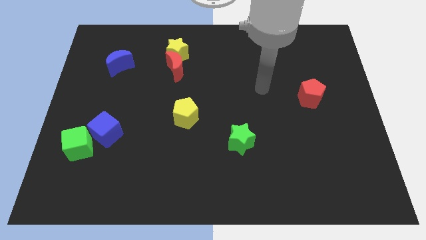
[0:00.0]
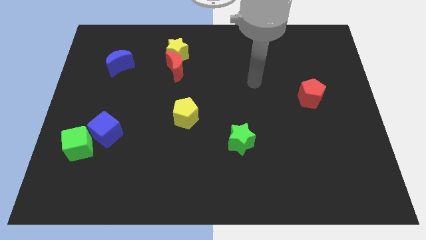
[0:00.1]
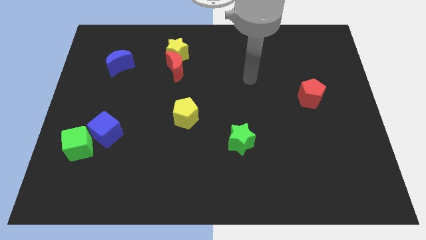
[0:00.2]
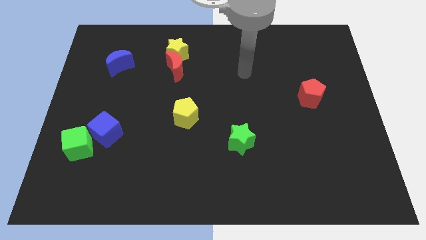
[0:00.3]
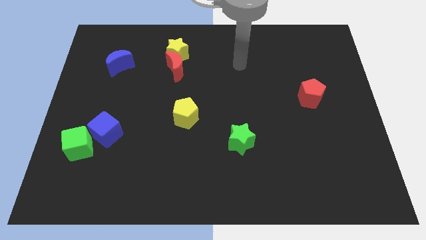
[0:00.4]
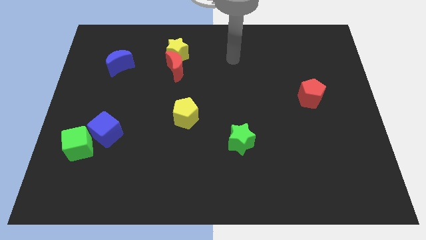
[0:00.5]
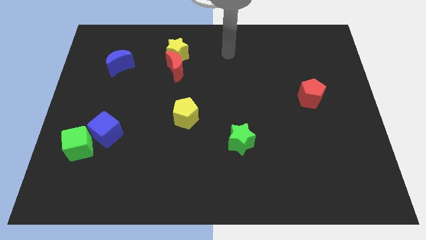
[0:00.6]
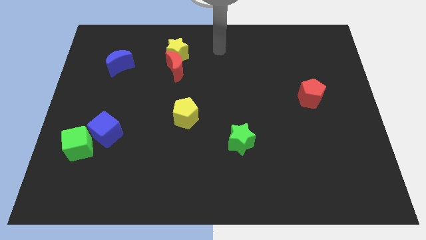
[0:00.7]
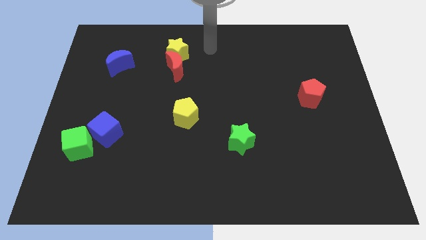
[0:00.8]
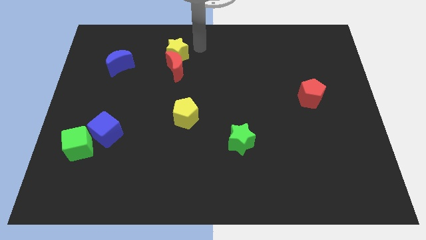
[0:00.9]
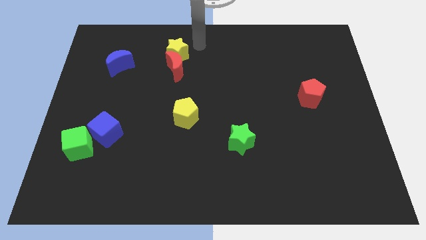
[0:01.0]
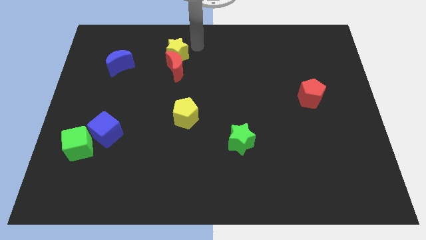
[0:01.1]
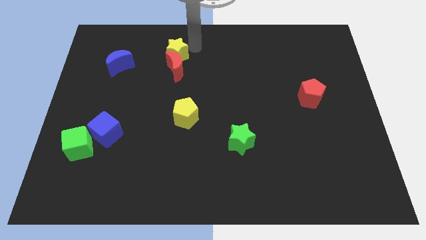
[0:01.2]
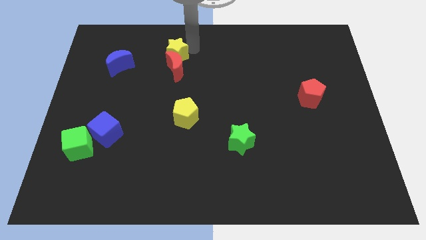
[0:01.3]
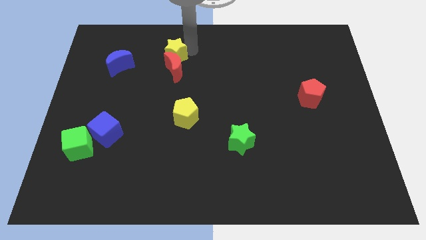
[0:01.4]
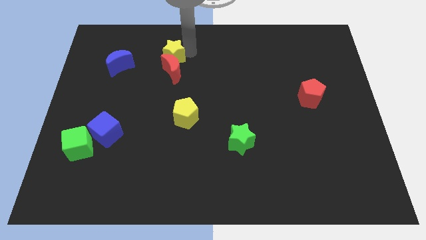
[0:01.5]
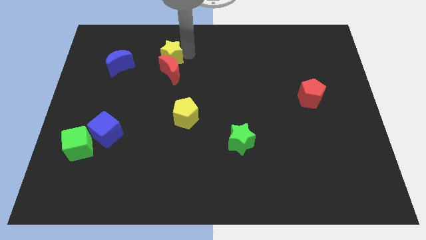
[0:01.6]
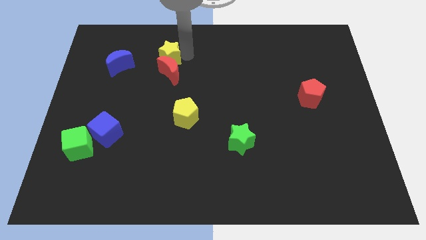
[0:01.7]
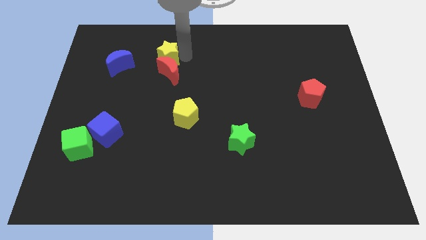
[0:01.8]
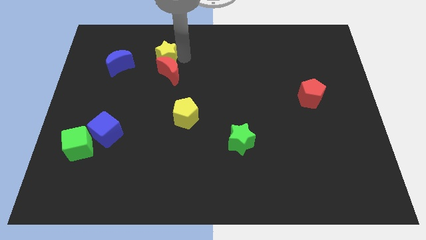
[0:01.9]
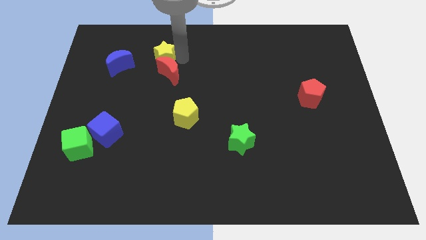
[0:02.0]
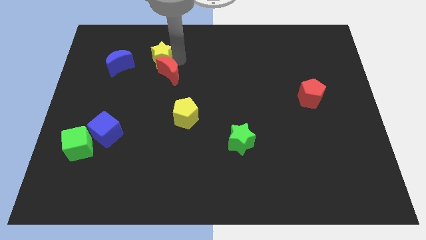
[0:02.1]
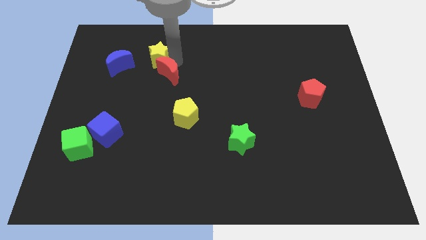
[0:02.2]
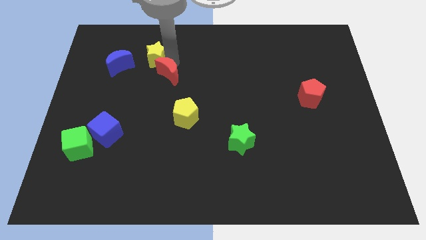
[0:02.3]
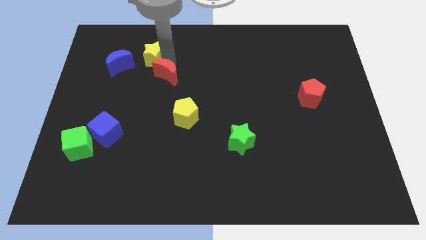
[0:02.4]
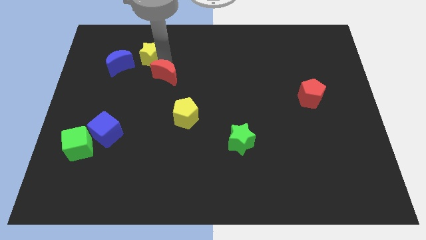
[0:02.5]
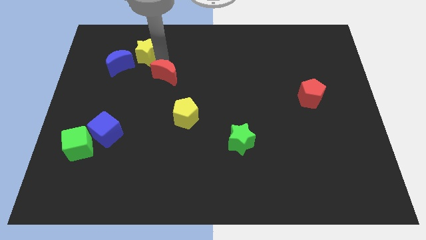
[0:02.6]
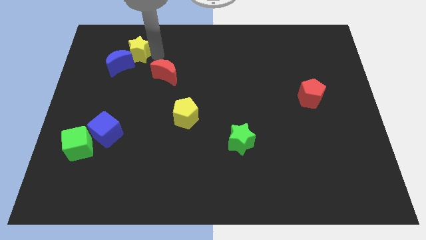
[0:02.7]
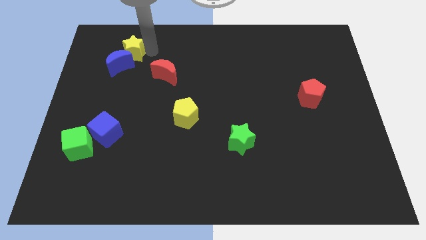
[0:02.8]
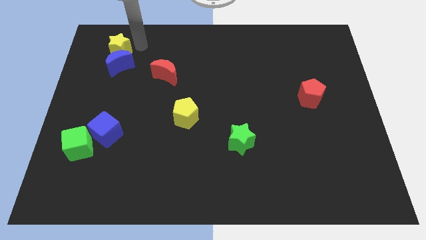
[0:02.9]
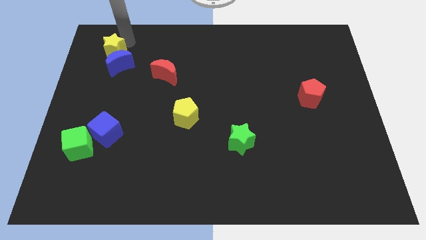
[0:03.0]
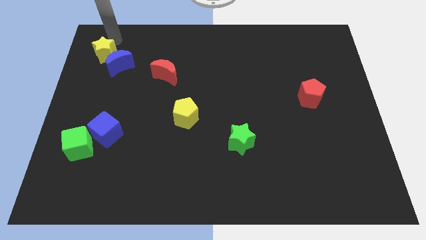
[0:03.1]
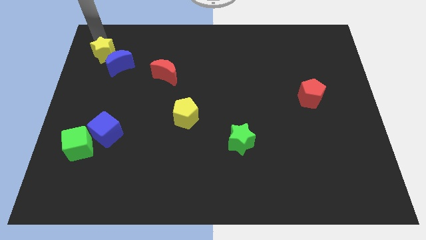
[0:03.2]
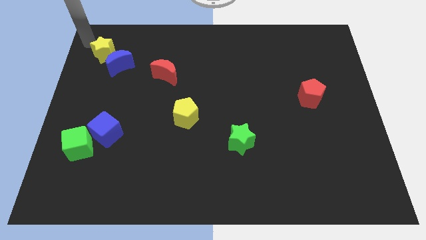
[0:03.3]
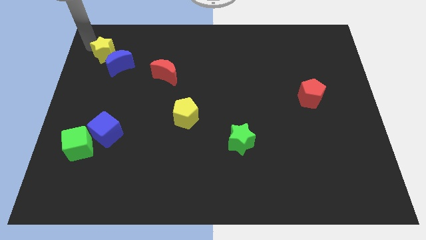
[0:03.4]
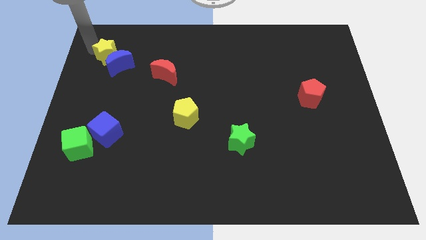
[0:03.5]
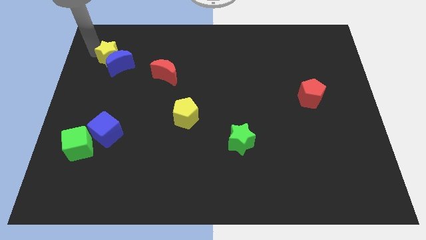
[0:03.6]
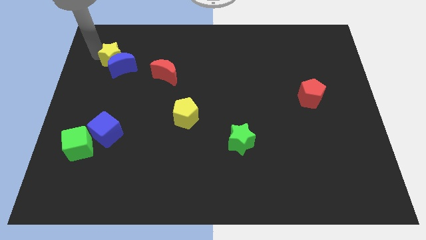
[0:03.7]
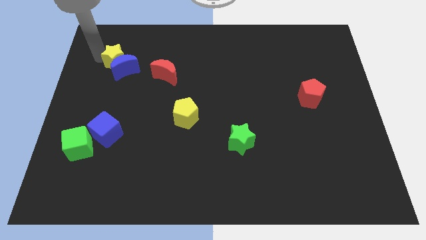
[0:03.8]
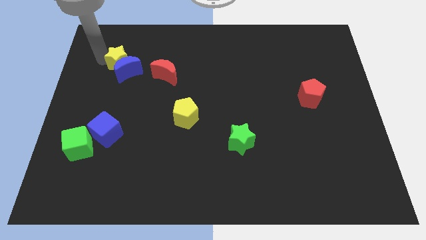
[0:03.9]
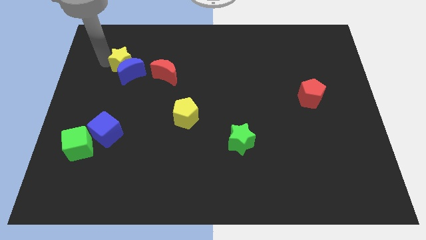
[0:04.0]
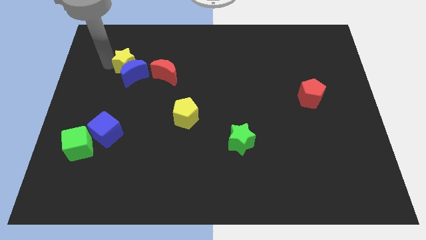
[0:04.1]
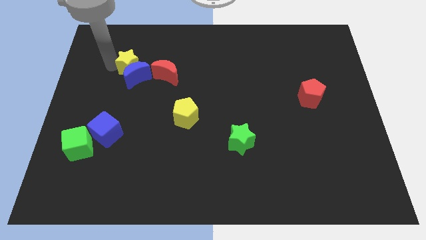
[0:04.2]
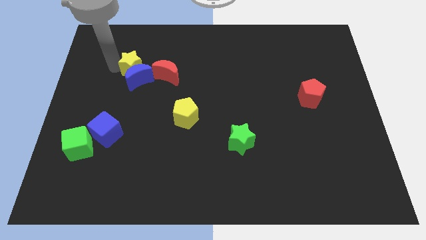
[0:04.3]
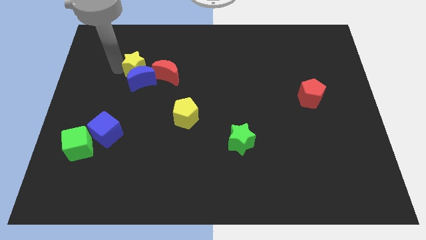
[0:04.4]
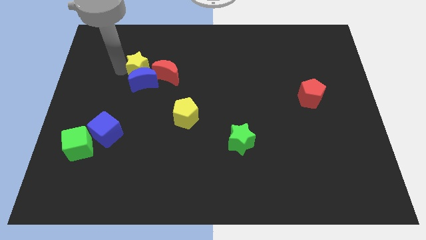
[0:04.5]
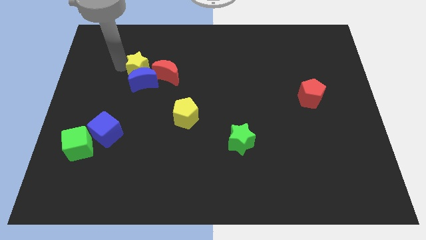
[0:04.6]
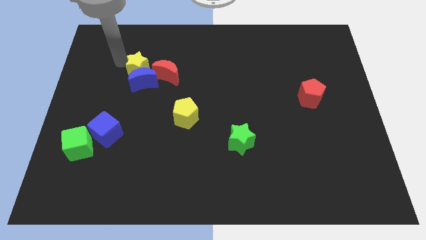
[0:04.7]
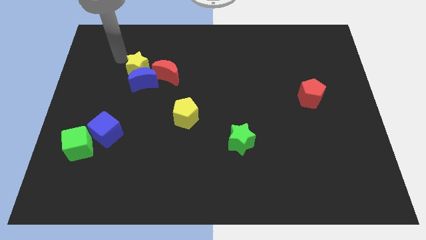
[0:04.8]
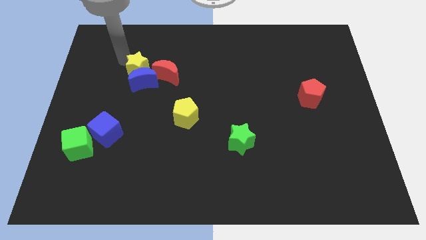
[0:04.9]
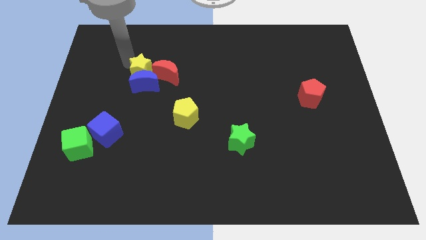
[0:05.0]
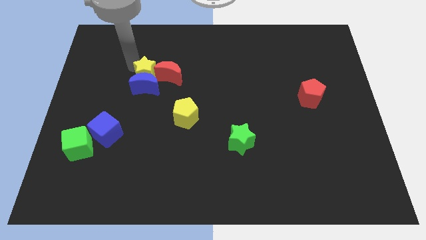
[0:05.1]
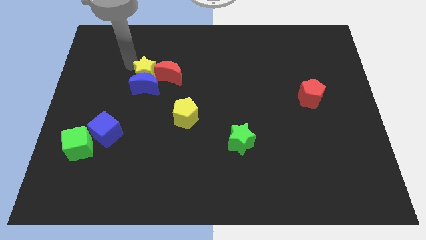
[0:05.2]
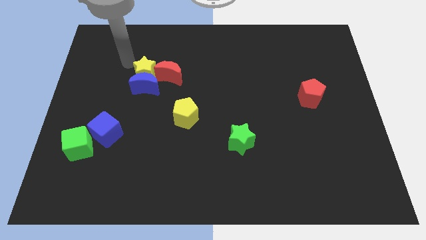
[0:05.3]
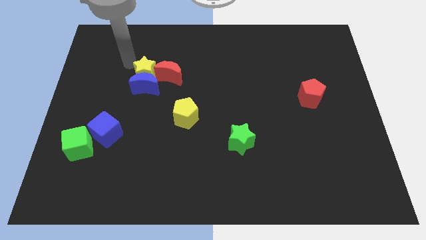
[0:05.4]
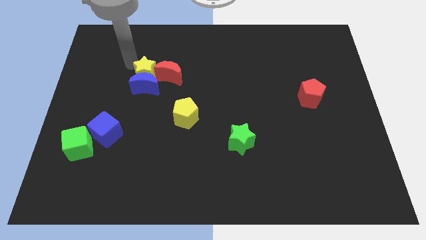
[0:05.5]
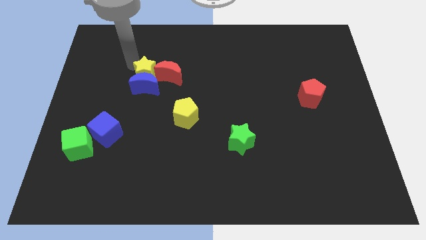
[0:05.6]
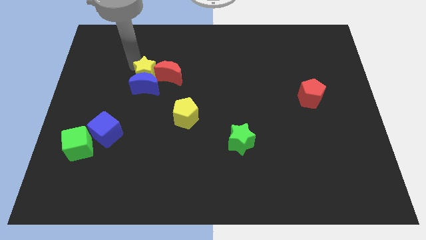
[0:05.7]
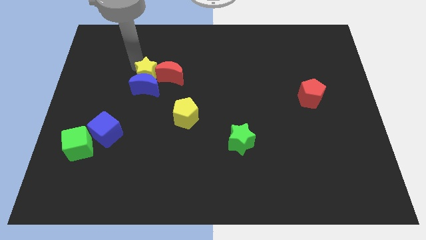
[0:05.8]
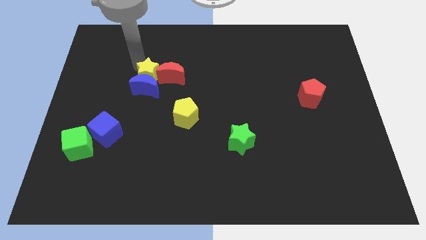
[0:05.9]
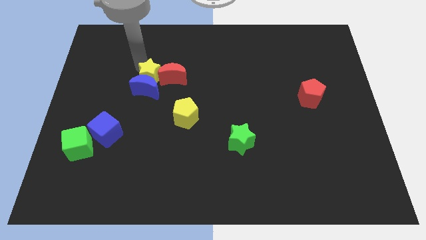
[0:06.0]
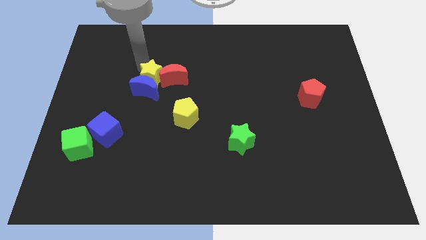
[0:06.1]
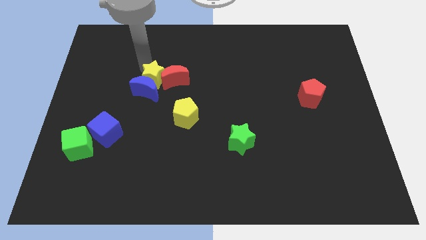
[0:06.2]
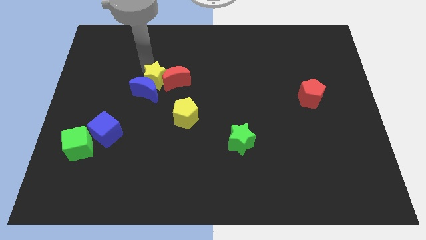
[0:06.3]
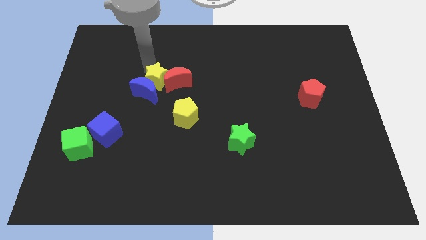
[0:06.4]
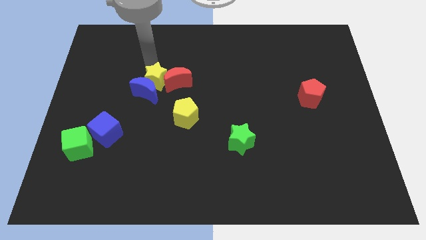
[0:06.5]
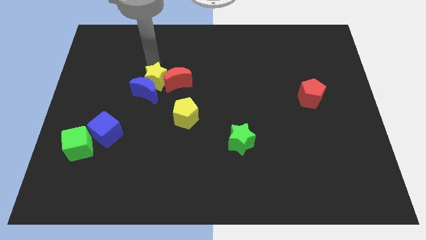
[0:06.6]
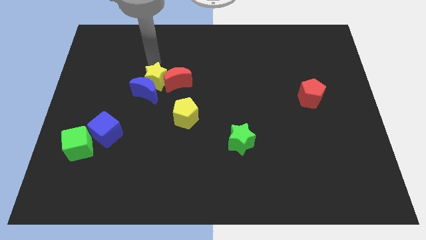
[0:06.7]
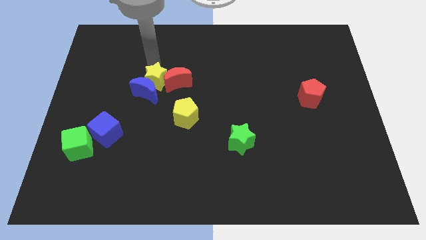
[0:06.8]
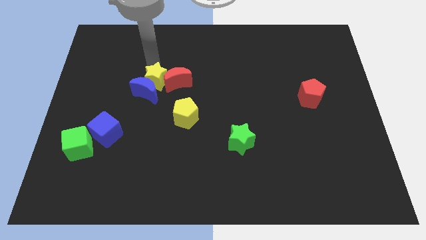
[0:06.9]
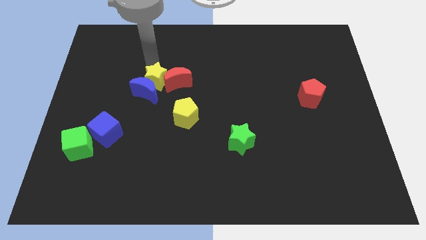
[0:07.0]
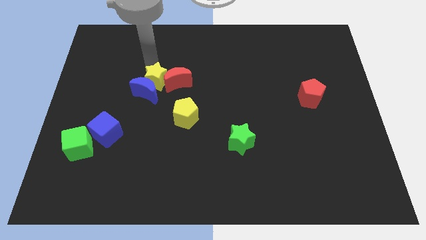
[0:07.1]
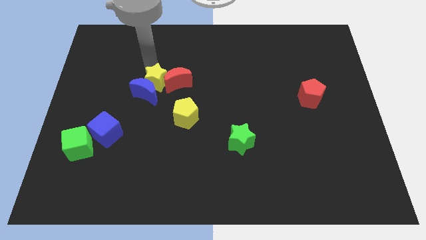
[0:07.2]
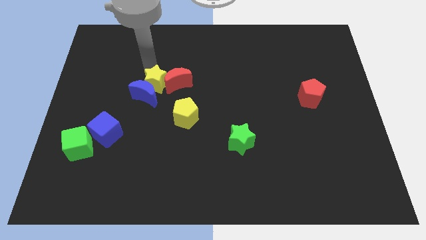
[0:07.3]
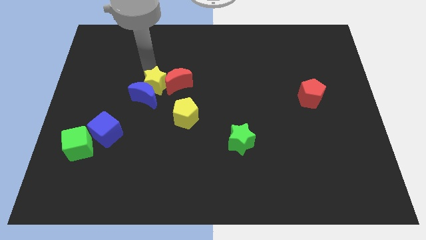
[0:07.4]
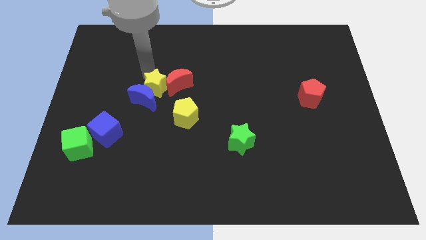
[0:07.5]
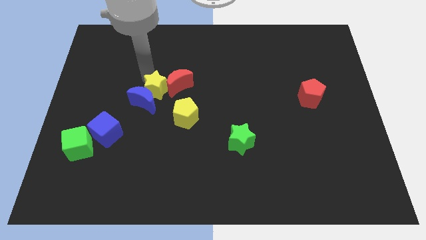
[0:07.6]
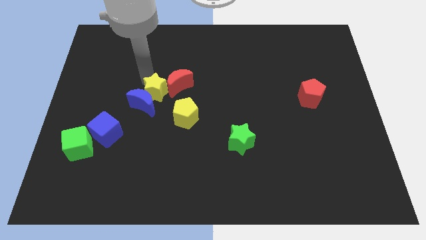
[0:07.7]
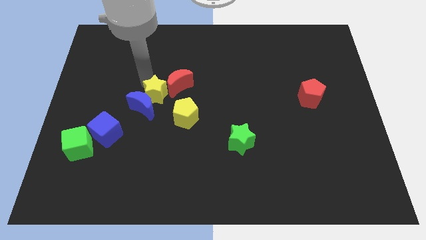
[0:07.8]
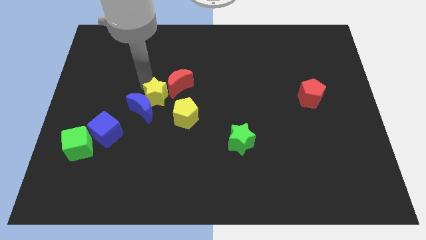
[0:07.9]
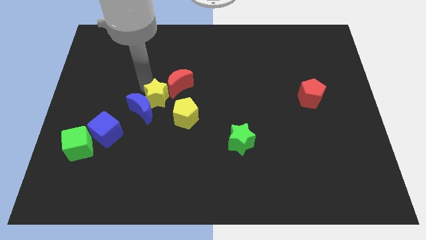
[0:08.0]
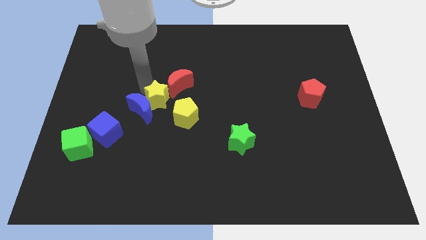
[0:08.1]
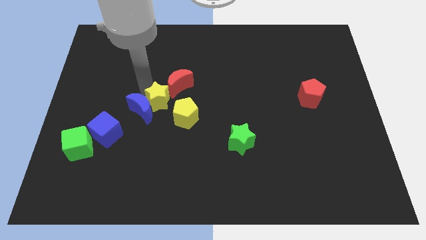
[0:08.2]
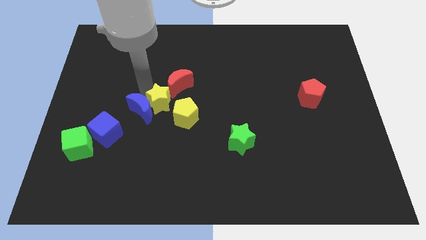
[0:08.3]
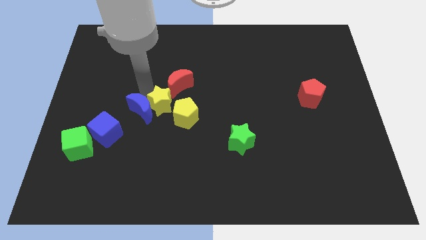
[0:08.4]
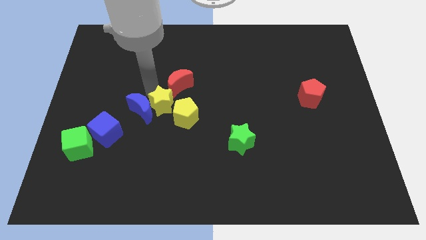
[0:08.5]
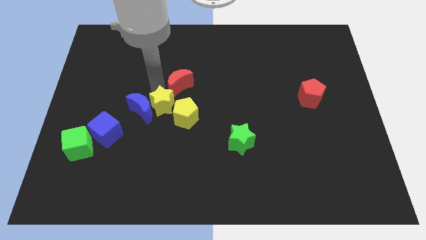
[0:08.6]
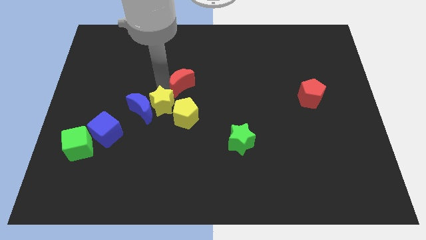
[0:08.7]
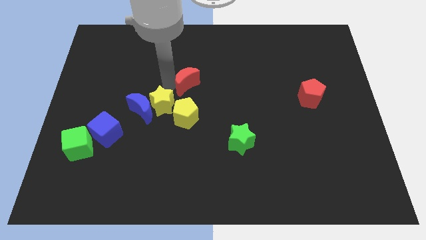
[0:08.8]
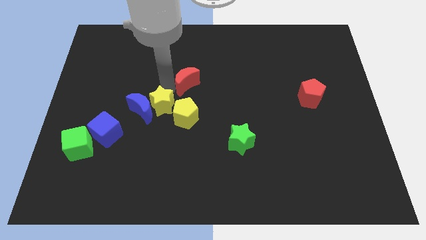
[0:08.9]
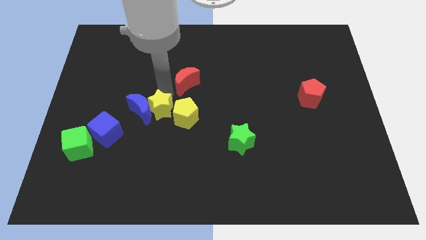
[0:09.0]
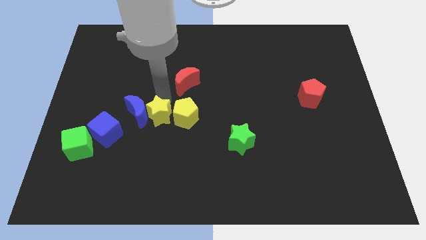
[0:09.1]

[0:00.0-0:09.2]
slide the yellow star down
